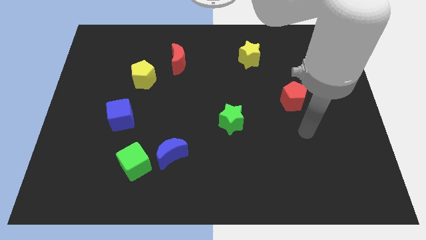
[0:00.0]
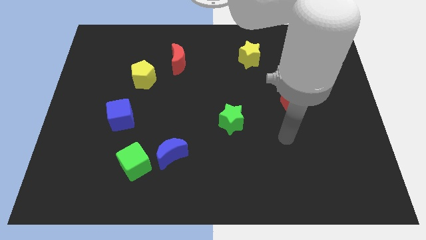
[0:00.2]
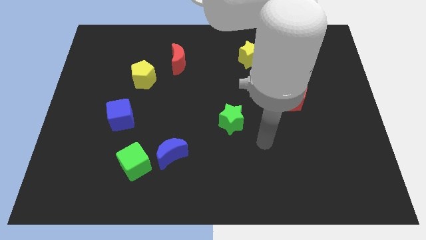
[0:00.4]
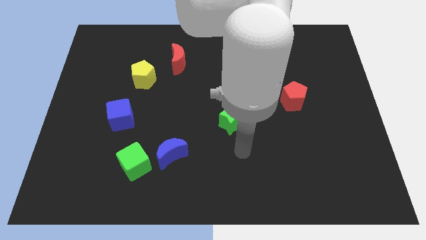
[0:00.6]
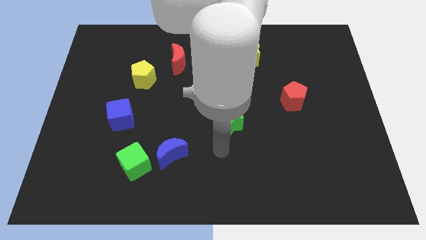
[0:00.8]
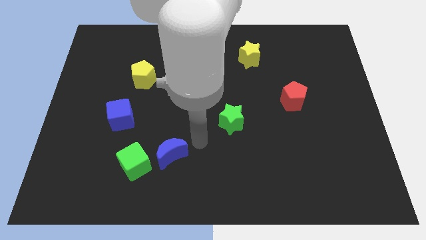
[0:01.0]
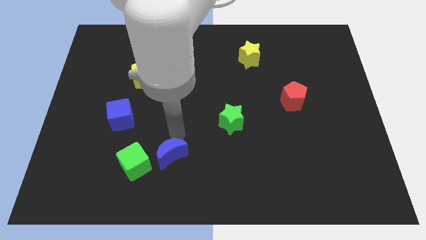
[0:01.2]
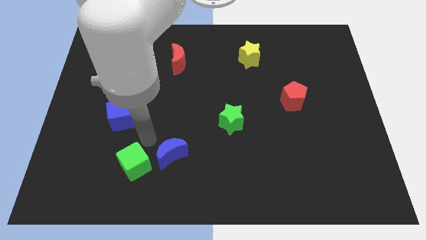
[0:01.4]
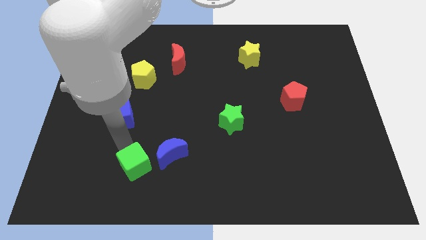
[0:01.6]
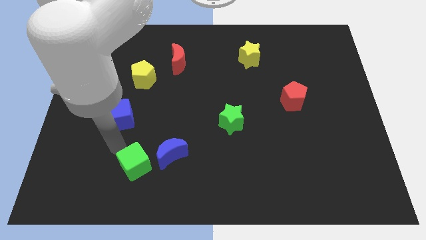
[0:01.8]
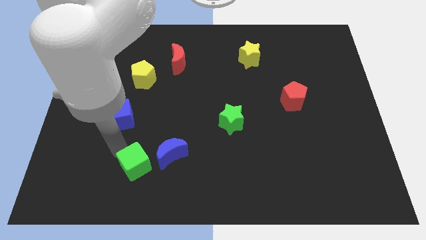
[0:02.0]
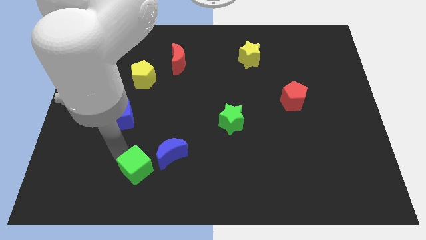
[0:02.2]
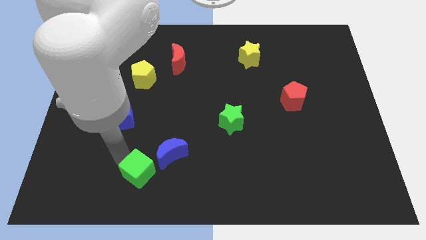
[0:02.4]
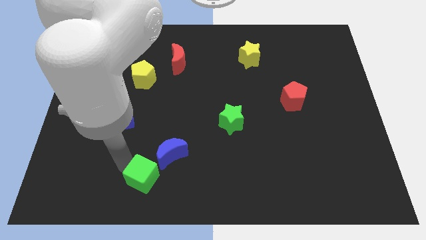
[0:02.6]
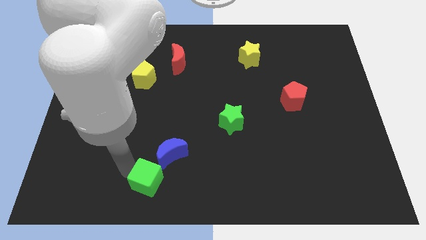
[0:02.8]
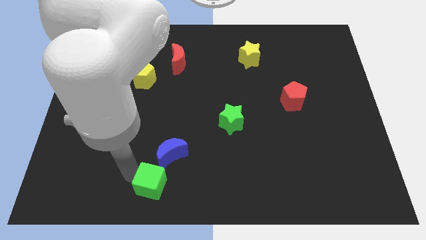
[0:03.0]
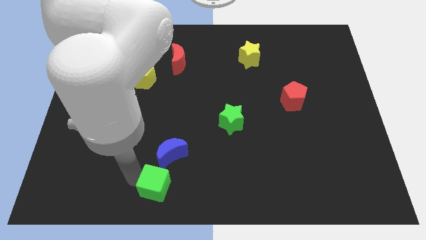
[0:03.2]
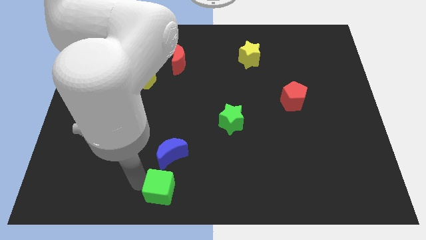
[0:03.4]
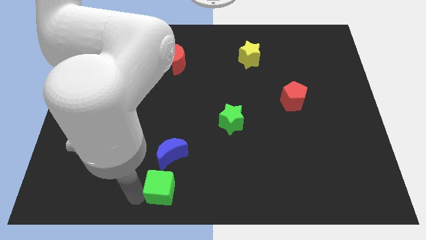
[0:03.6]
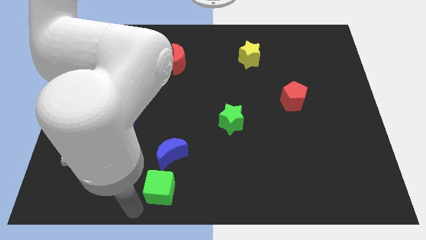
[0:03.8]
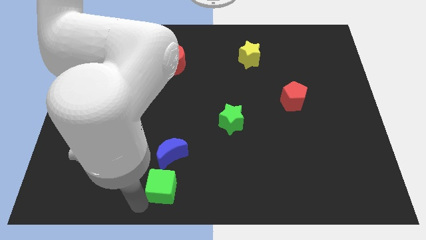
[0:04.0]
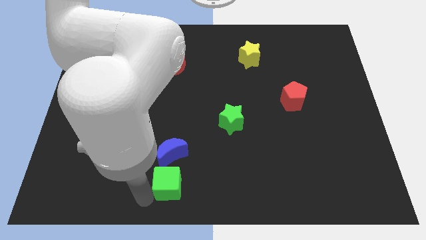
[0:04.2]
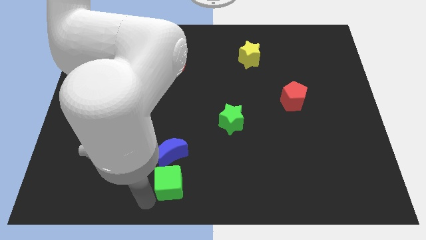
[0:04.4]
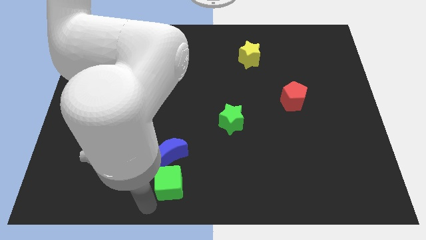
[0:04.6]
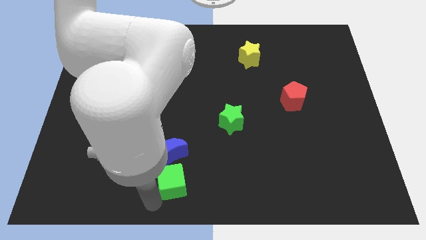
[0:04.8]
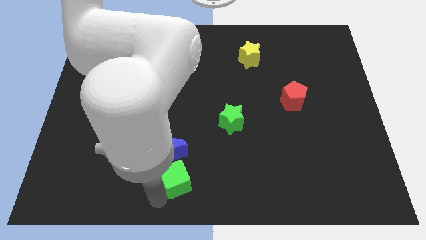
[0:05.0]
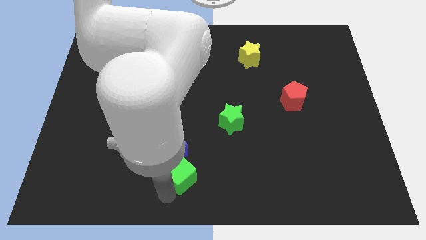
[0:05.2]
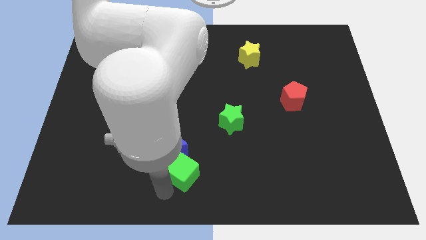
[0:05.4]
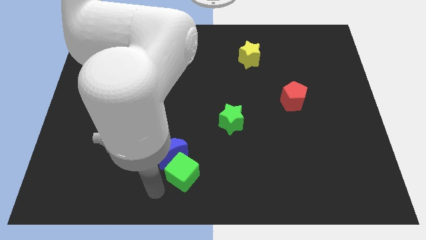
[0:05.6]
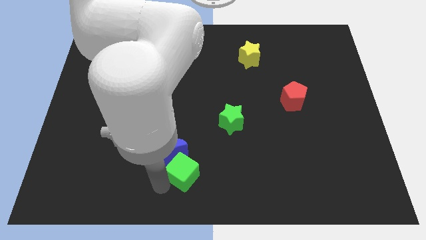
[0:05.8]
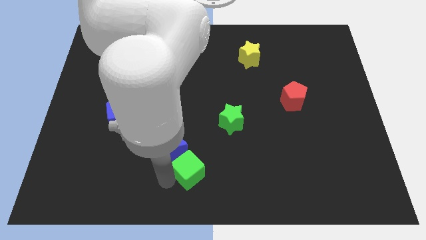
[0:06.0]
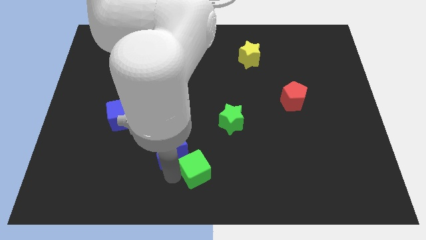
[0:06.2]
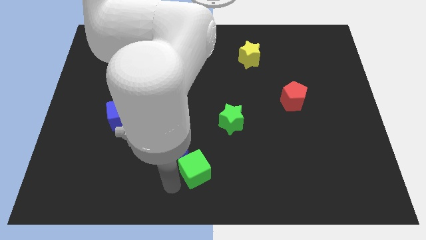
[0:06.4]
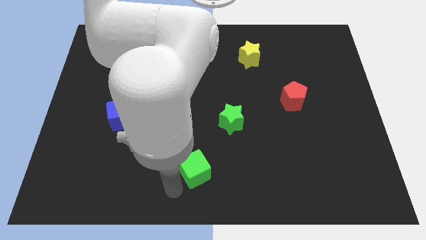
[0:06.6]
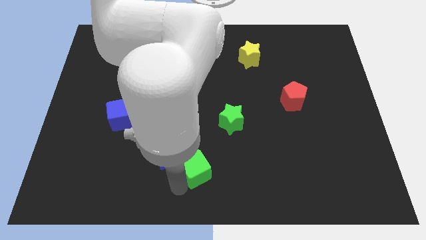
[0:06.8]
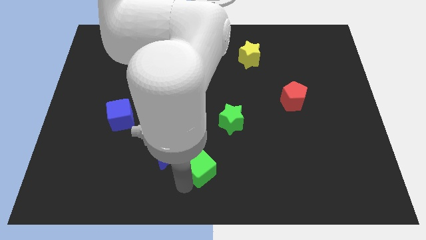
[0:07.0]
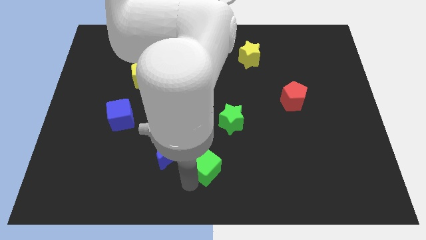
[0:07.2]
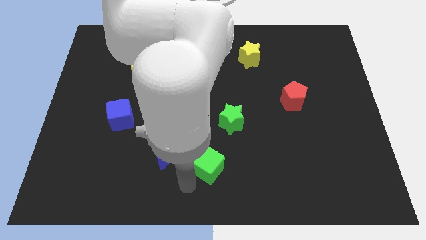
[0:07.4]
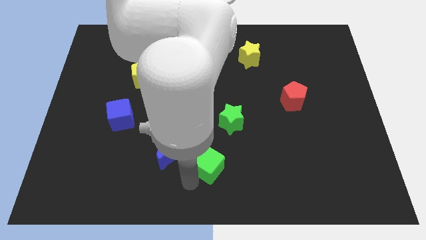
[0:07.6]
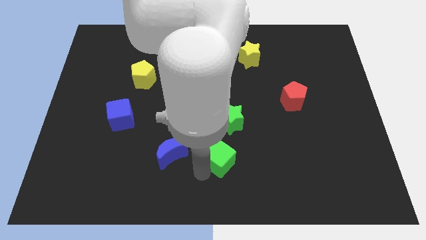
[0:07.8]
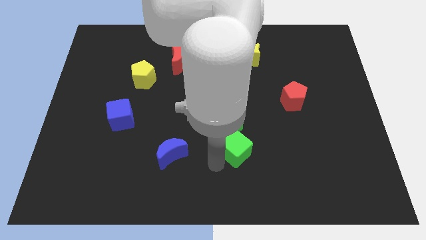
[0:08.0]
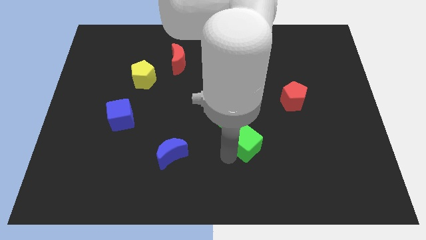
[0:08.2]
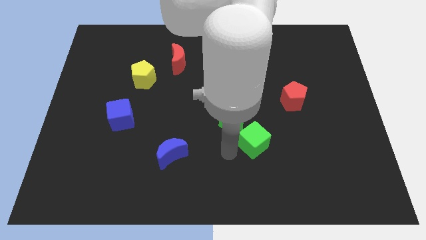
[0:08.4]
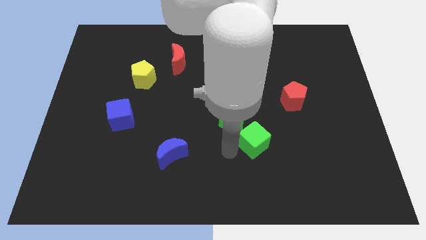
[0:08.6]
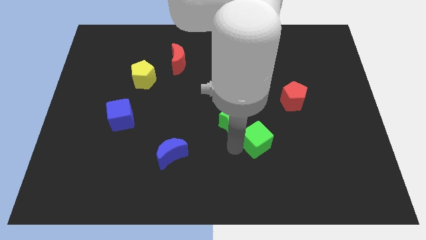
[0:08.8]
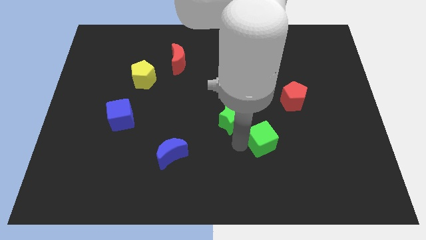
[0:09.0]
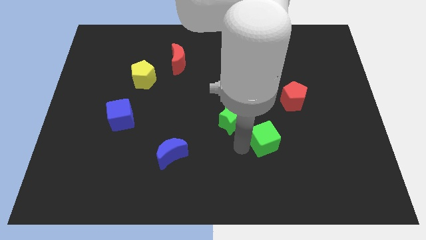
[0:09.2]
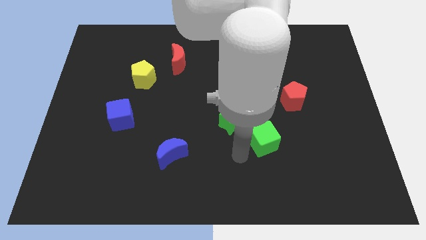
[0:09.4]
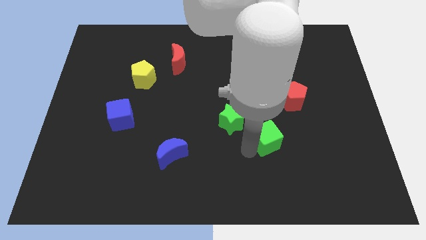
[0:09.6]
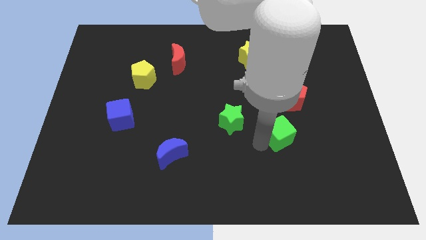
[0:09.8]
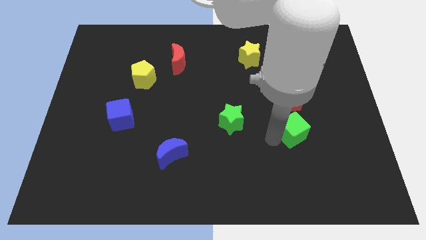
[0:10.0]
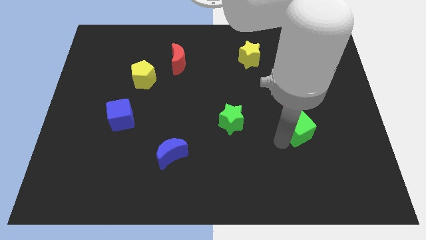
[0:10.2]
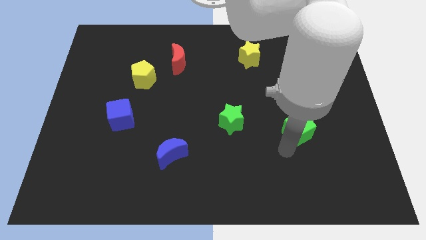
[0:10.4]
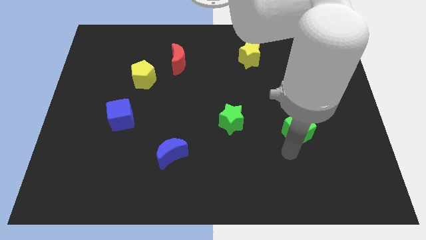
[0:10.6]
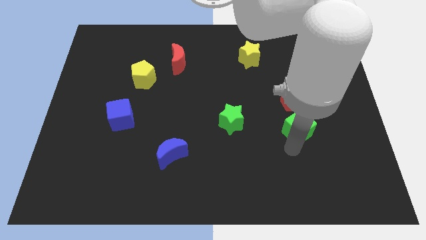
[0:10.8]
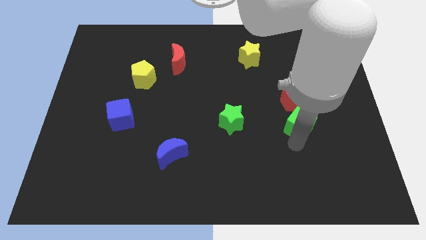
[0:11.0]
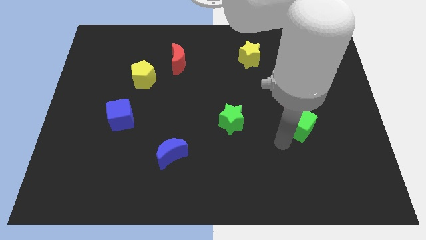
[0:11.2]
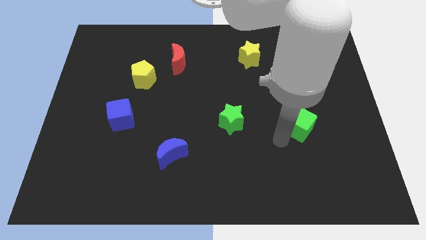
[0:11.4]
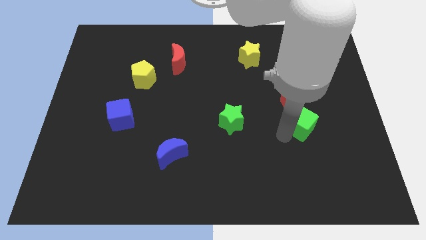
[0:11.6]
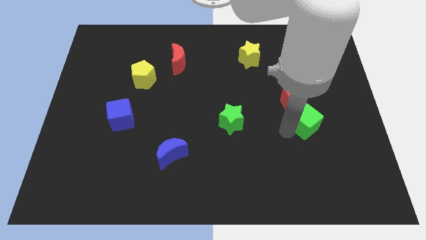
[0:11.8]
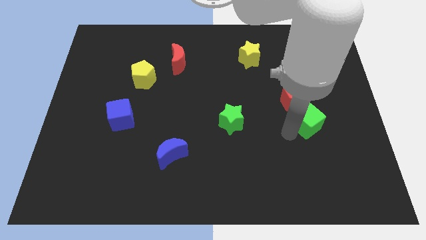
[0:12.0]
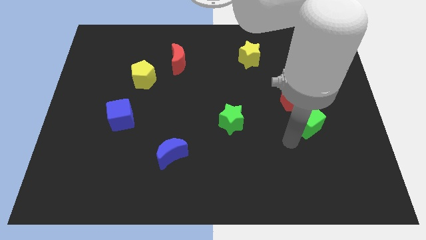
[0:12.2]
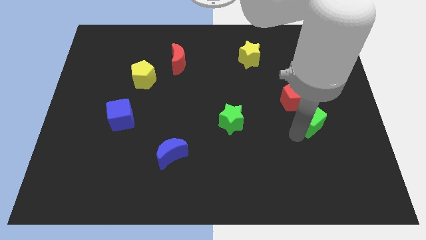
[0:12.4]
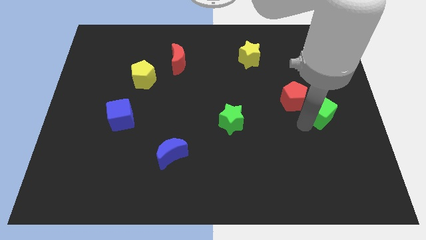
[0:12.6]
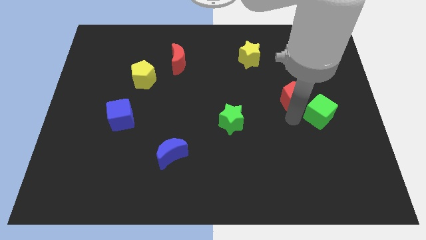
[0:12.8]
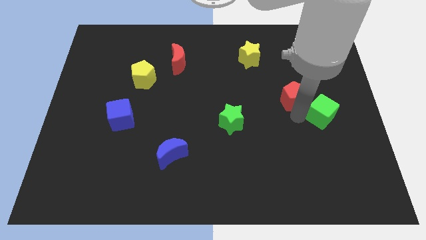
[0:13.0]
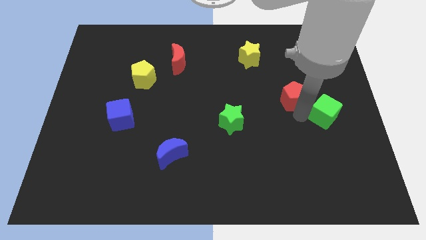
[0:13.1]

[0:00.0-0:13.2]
move the green cube to the right side

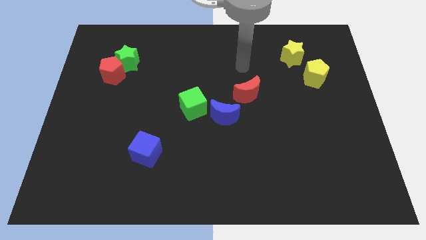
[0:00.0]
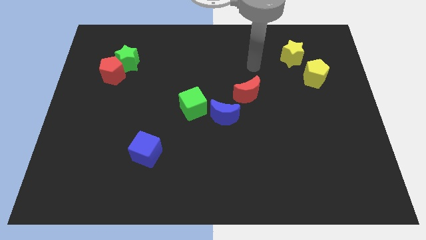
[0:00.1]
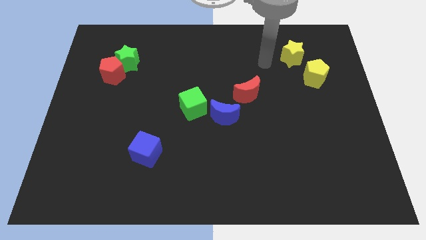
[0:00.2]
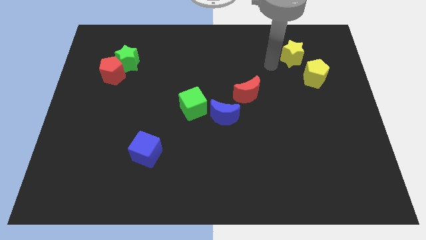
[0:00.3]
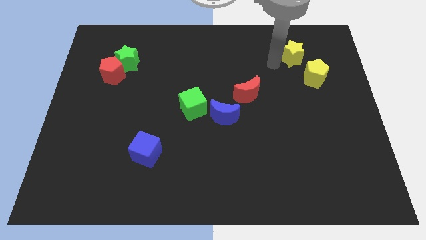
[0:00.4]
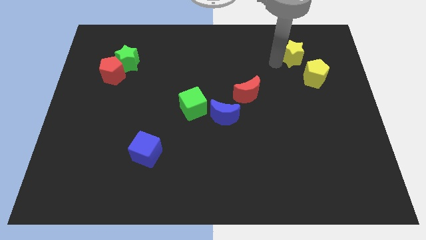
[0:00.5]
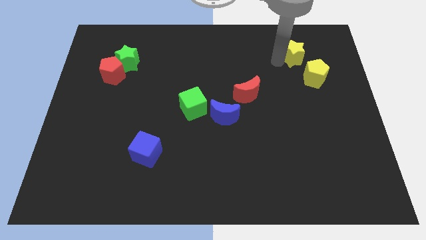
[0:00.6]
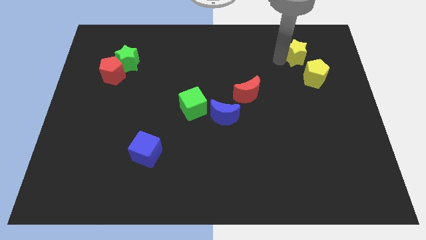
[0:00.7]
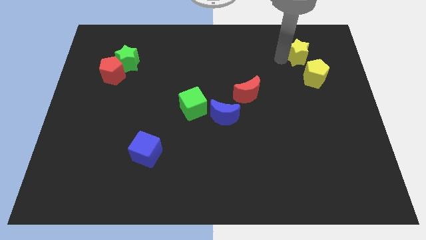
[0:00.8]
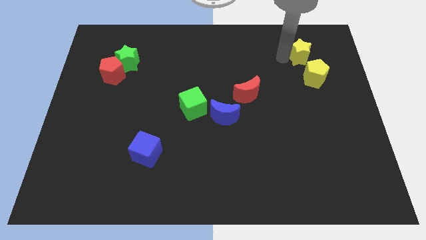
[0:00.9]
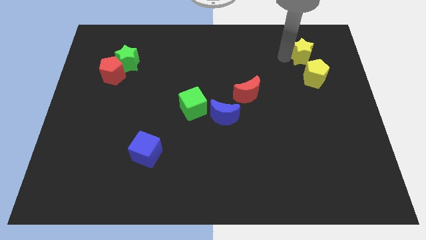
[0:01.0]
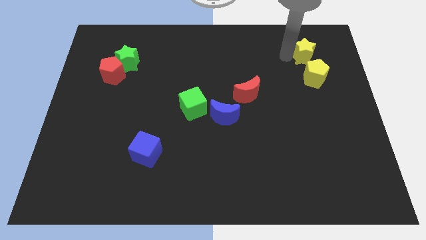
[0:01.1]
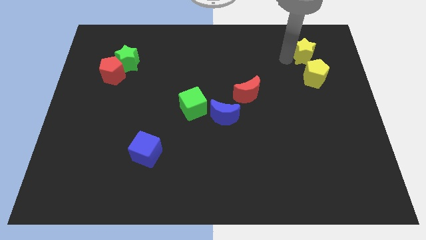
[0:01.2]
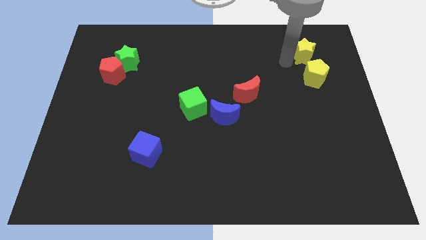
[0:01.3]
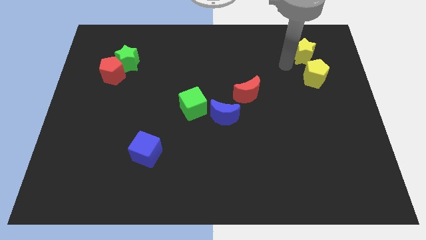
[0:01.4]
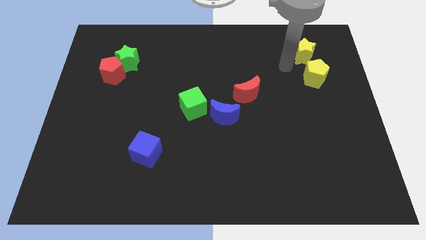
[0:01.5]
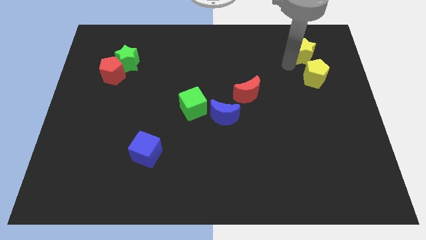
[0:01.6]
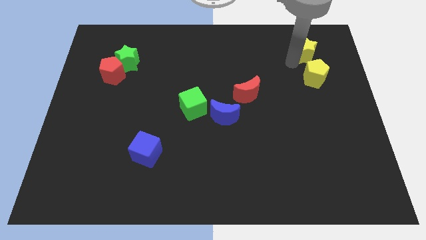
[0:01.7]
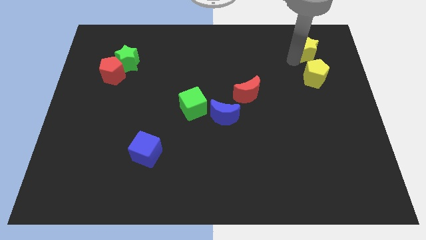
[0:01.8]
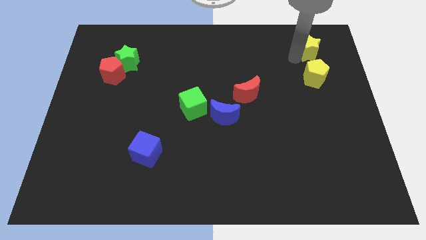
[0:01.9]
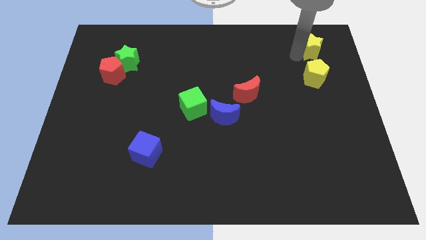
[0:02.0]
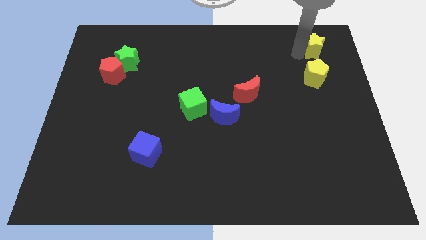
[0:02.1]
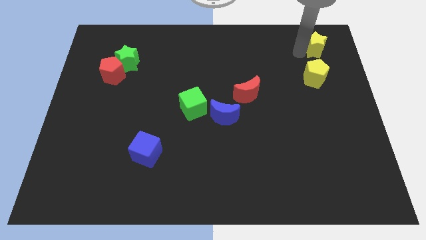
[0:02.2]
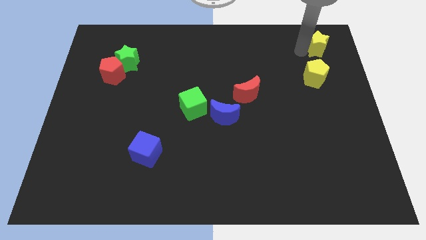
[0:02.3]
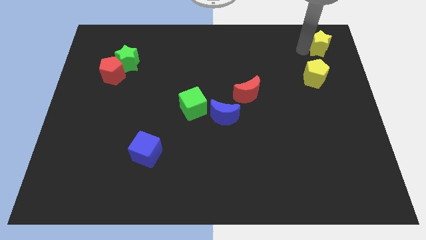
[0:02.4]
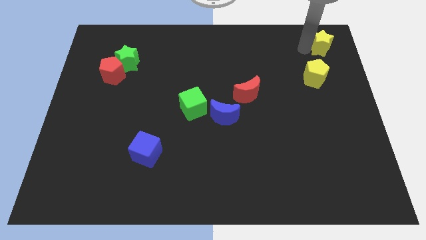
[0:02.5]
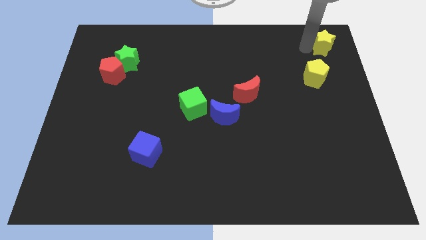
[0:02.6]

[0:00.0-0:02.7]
slide the yellow star to the top right
